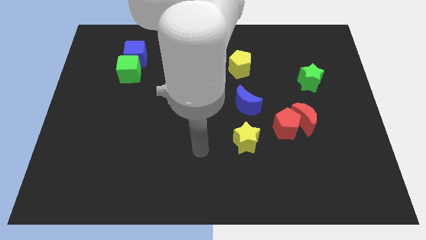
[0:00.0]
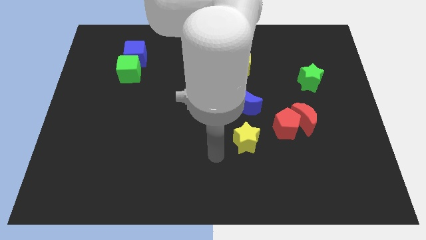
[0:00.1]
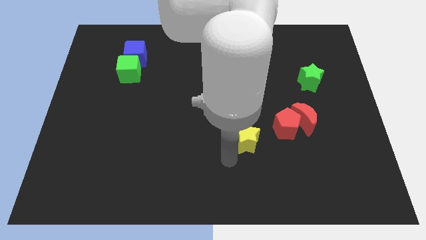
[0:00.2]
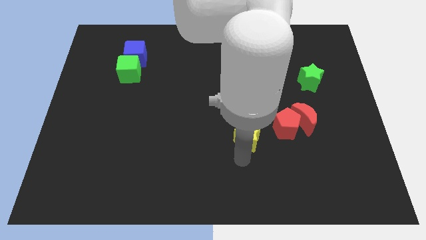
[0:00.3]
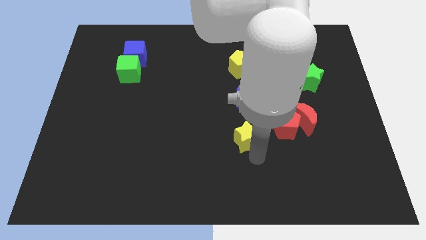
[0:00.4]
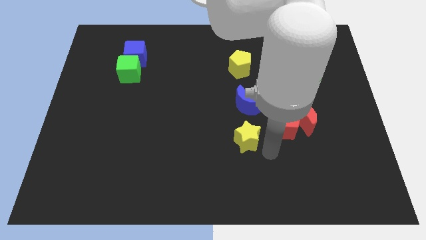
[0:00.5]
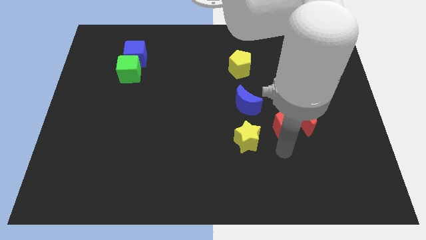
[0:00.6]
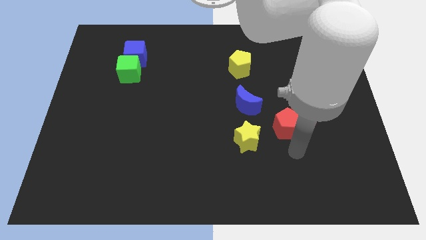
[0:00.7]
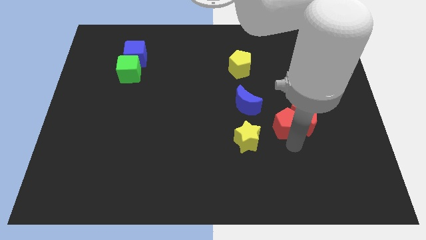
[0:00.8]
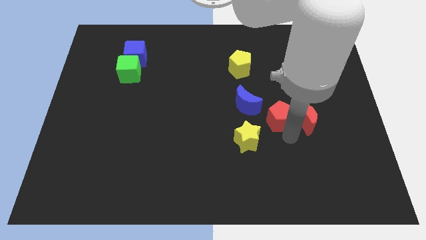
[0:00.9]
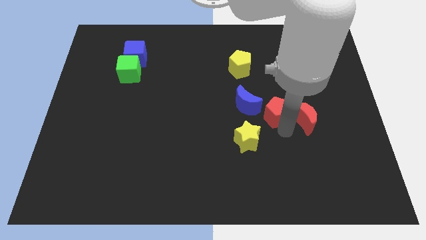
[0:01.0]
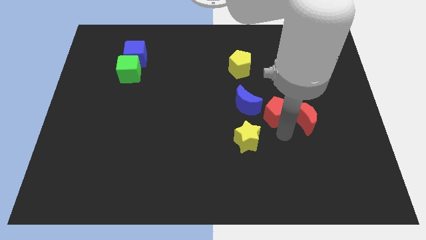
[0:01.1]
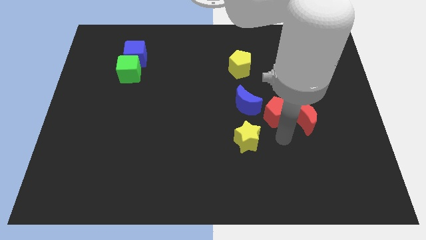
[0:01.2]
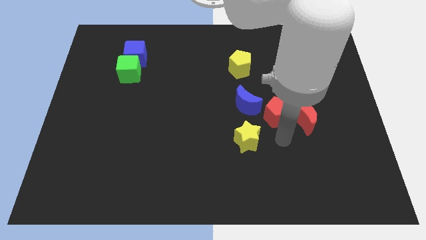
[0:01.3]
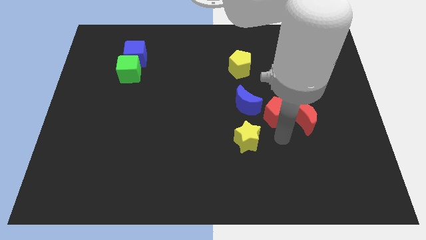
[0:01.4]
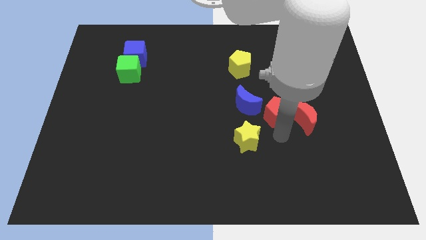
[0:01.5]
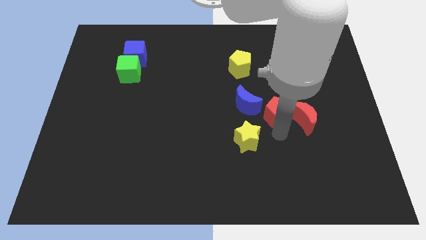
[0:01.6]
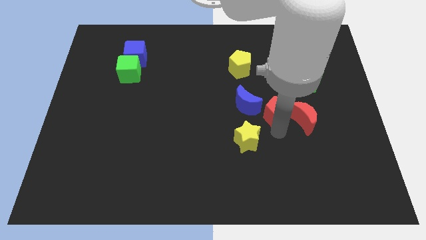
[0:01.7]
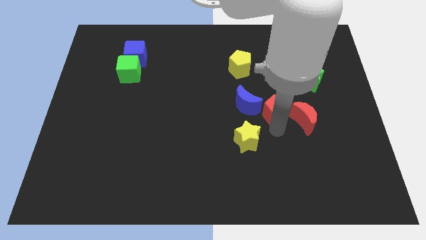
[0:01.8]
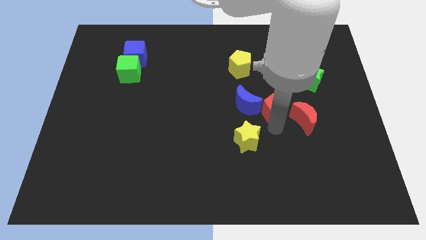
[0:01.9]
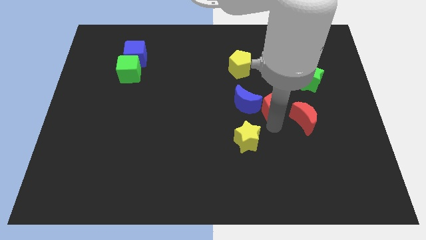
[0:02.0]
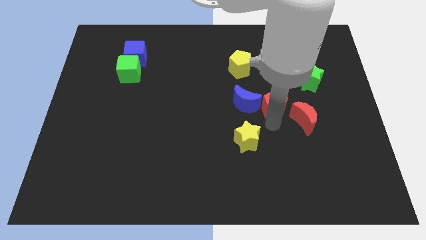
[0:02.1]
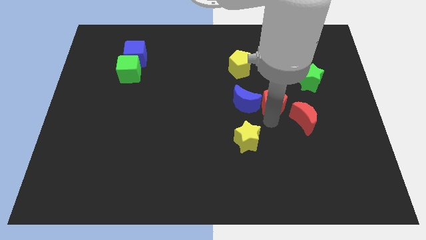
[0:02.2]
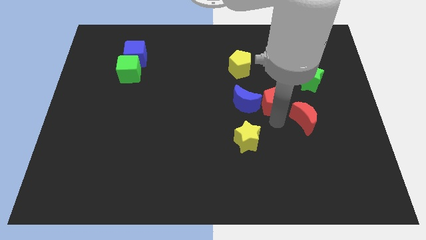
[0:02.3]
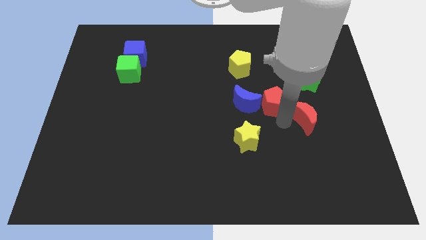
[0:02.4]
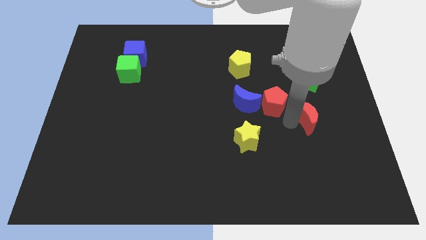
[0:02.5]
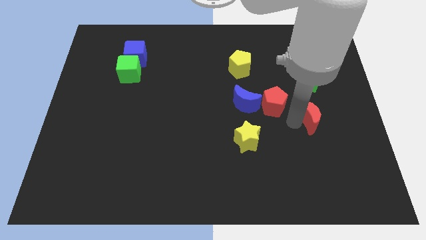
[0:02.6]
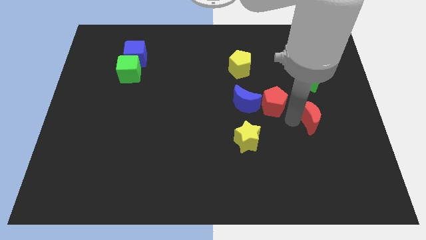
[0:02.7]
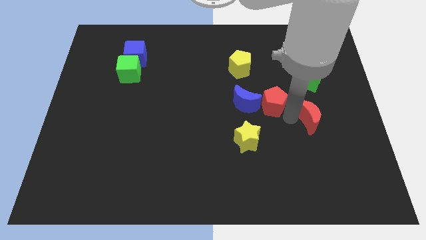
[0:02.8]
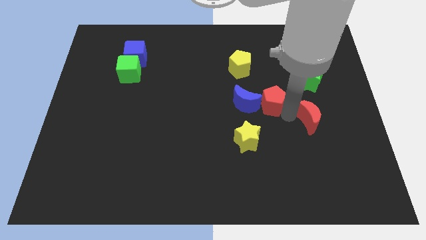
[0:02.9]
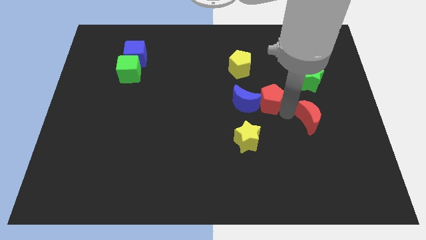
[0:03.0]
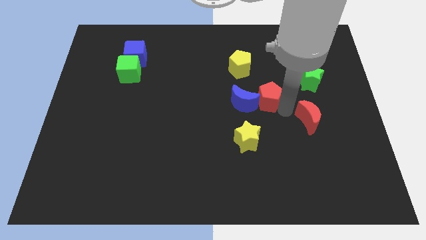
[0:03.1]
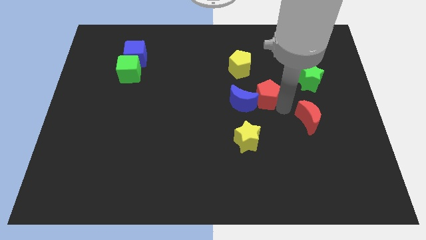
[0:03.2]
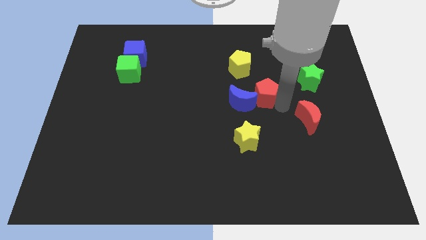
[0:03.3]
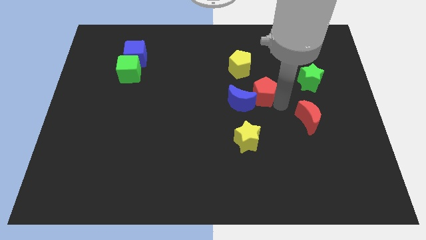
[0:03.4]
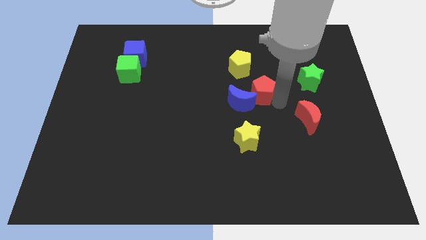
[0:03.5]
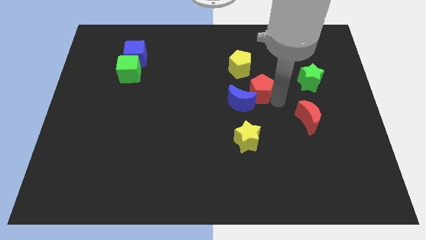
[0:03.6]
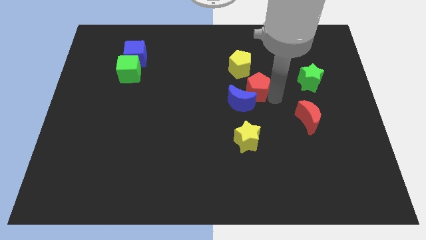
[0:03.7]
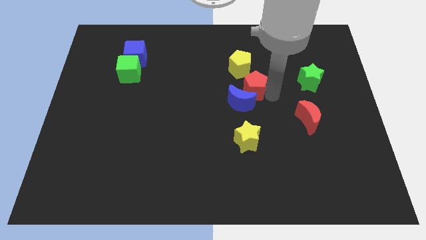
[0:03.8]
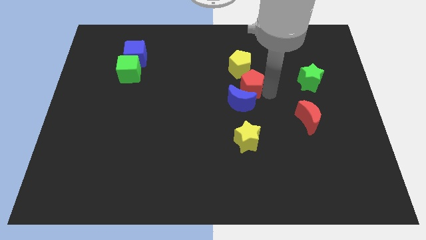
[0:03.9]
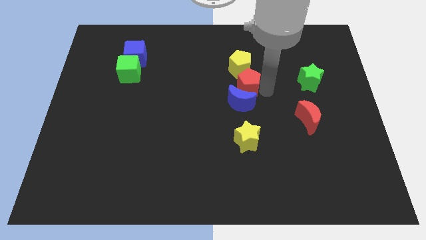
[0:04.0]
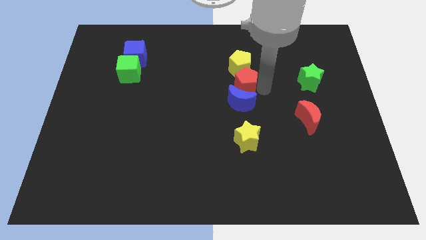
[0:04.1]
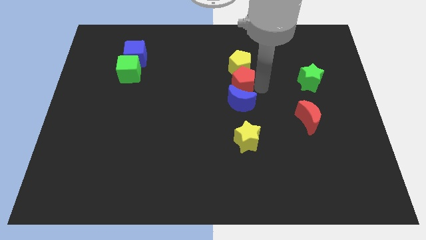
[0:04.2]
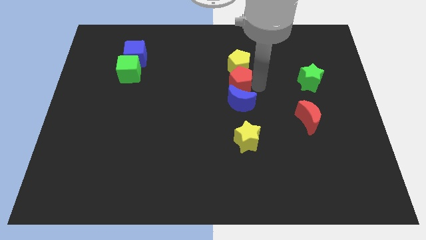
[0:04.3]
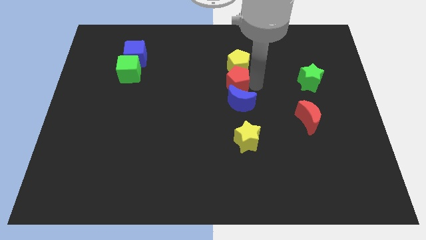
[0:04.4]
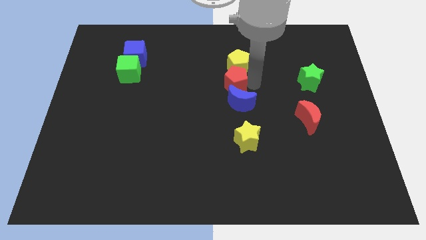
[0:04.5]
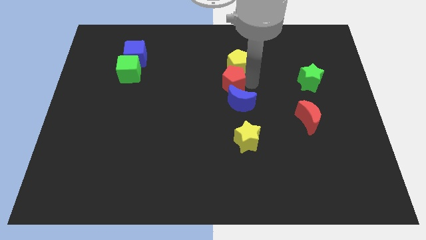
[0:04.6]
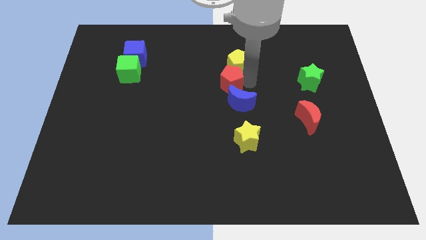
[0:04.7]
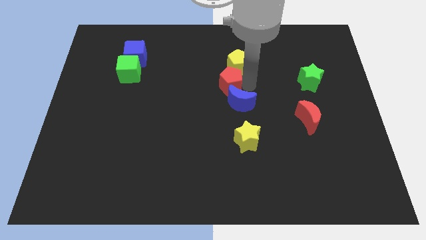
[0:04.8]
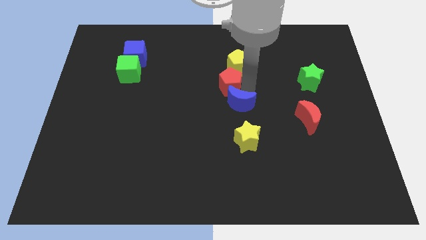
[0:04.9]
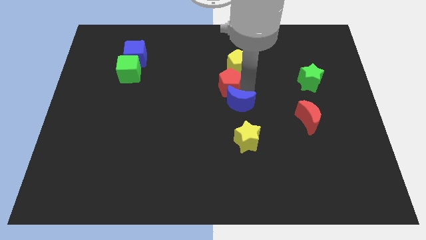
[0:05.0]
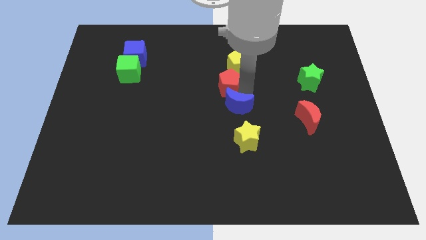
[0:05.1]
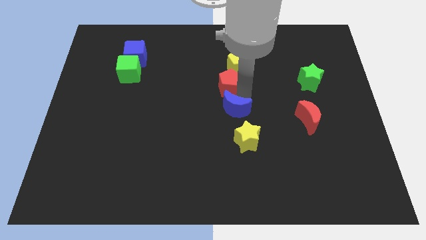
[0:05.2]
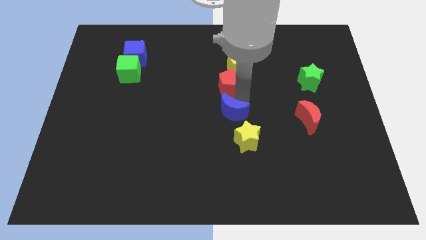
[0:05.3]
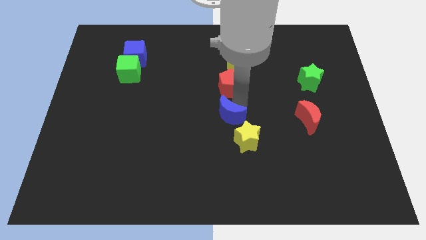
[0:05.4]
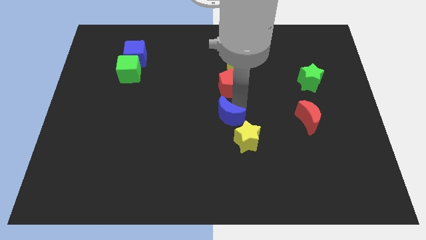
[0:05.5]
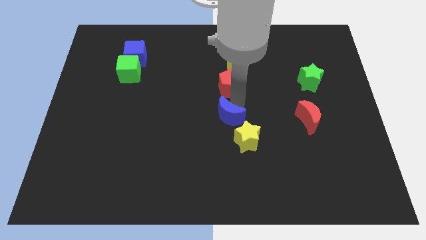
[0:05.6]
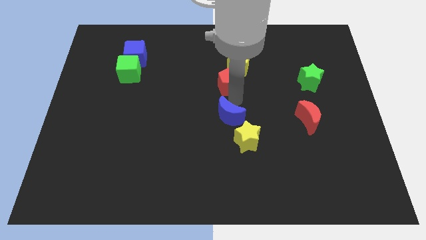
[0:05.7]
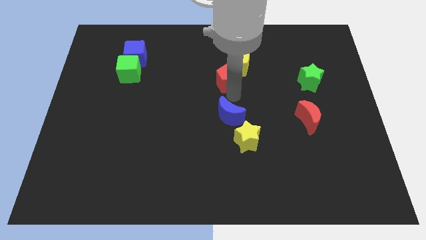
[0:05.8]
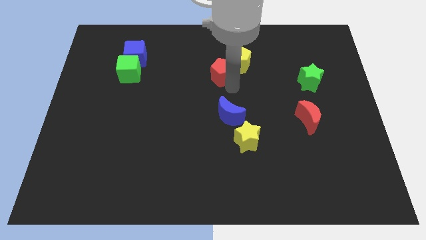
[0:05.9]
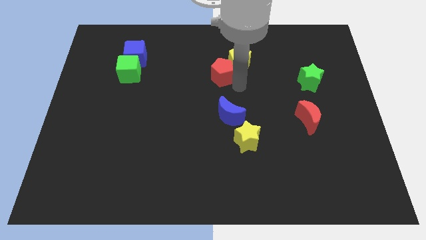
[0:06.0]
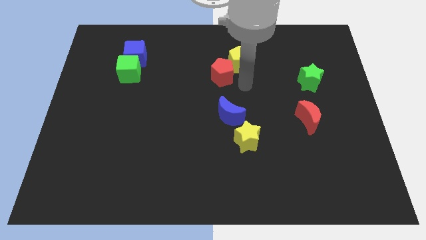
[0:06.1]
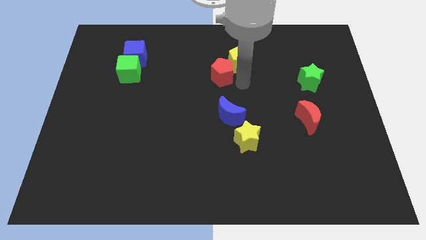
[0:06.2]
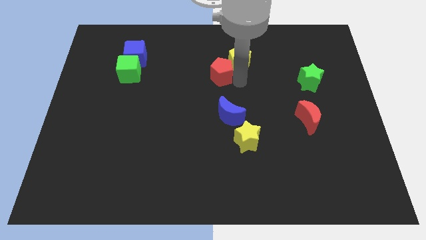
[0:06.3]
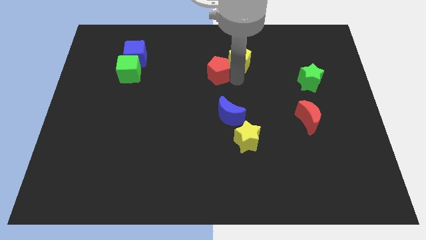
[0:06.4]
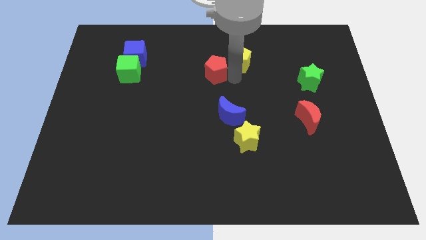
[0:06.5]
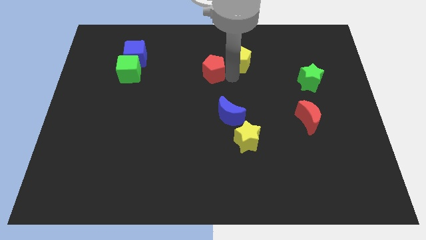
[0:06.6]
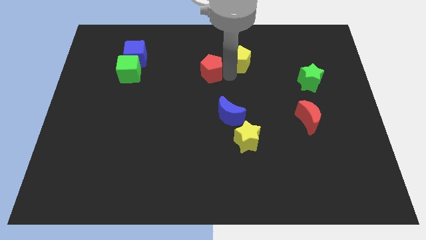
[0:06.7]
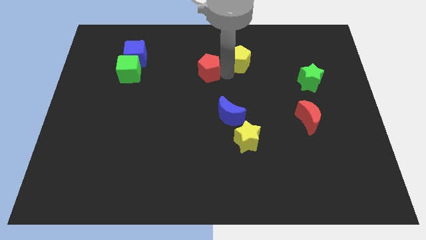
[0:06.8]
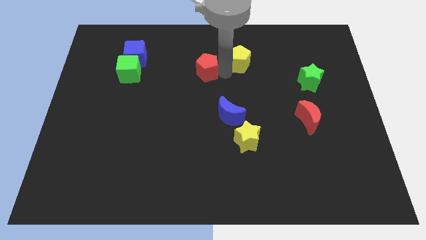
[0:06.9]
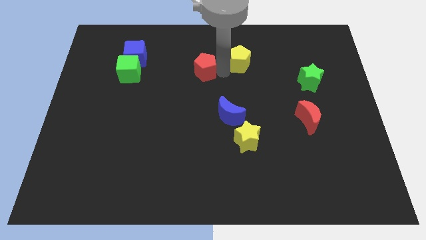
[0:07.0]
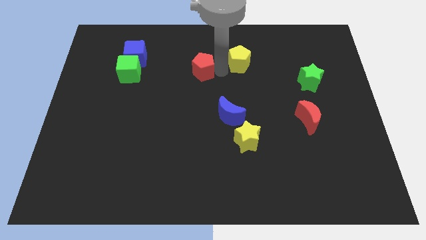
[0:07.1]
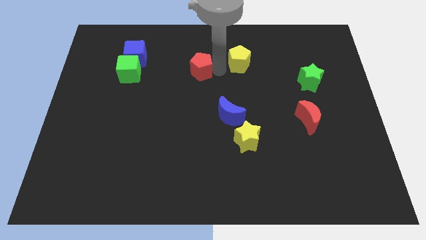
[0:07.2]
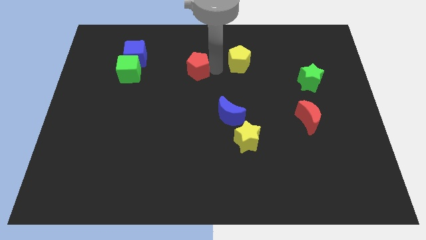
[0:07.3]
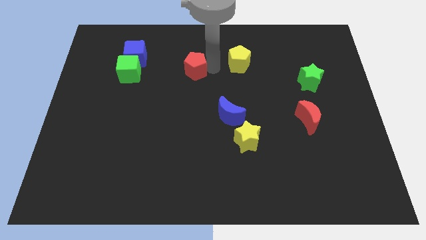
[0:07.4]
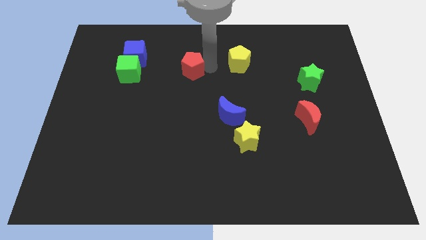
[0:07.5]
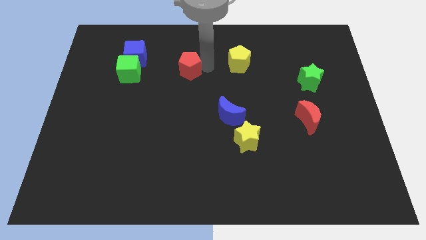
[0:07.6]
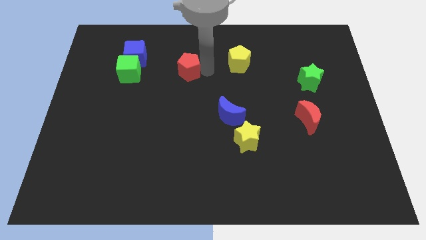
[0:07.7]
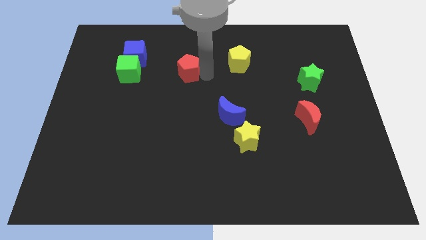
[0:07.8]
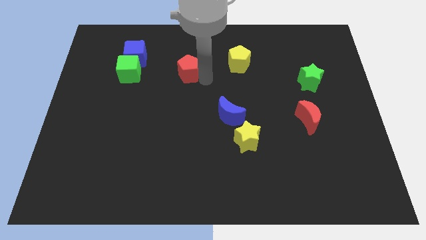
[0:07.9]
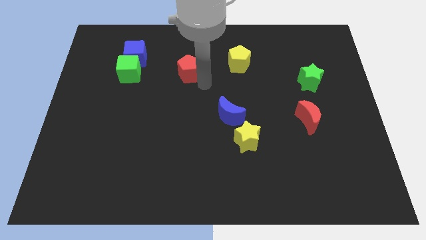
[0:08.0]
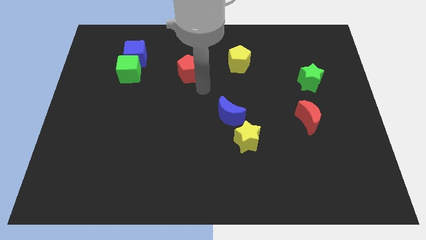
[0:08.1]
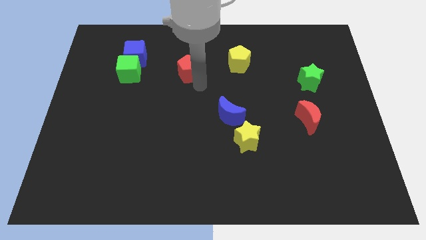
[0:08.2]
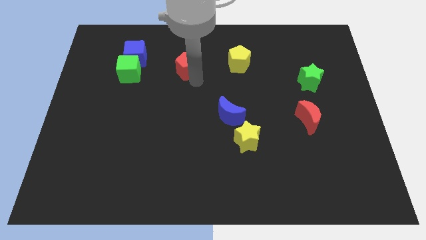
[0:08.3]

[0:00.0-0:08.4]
slide the red pentagon just right of the blue cube
